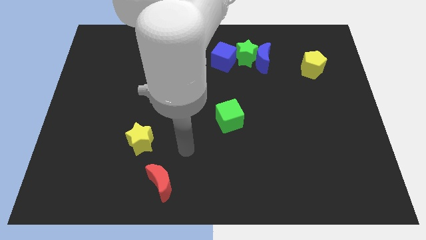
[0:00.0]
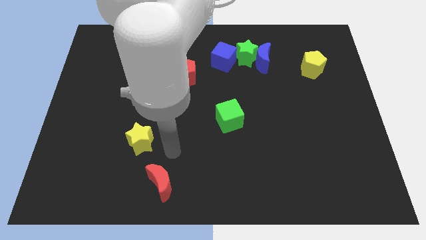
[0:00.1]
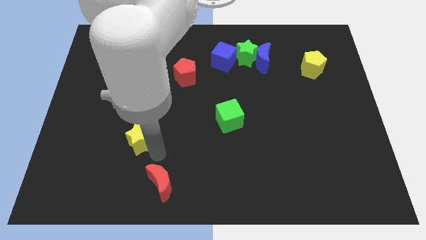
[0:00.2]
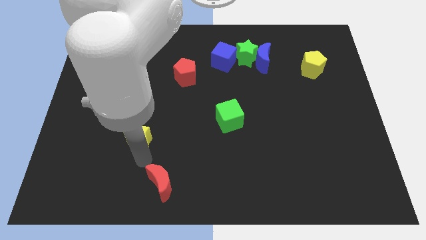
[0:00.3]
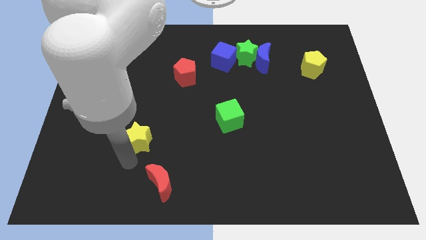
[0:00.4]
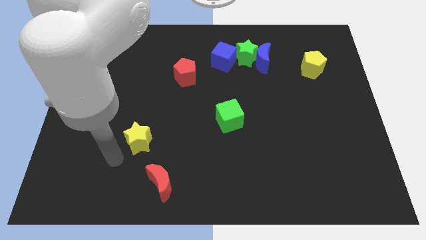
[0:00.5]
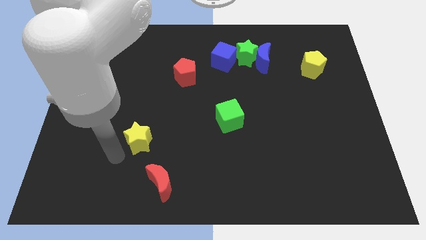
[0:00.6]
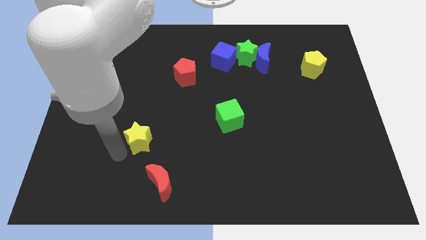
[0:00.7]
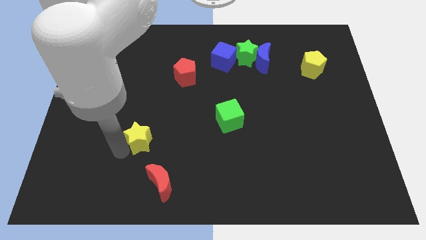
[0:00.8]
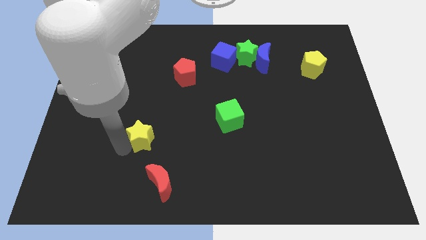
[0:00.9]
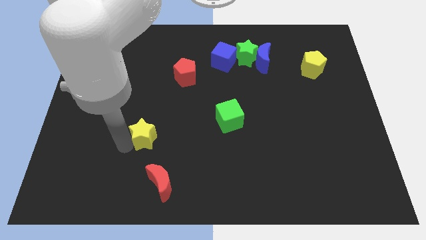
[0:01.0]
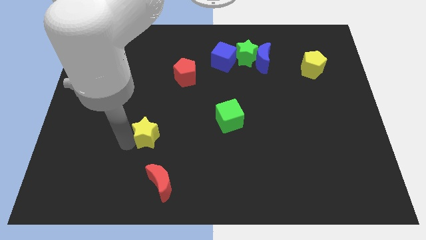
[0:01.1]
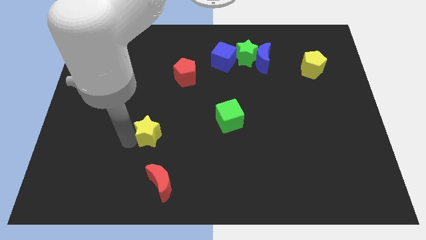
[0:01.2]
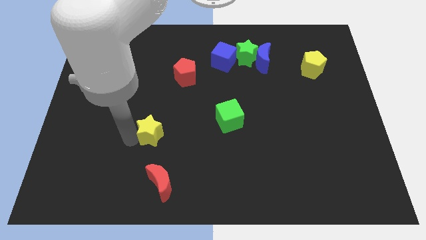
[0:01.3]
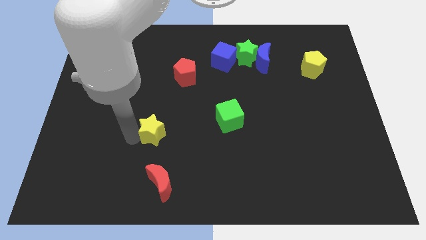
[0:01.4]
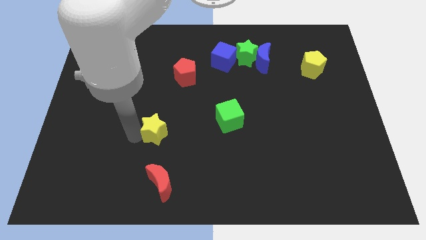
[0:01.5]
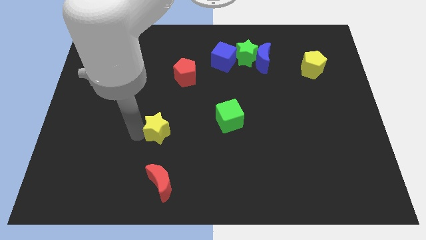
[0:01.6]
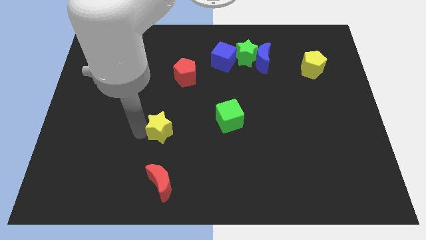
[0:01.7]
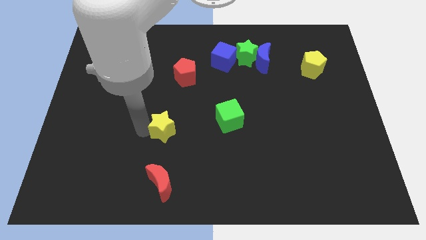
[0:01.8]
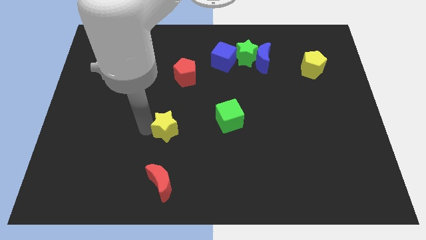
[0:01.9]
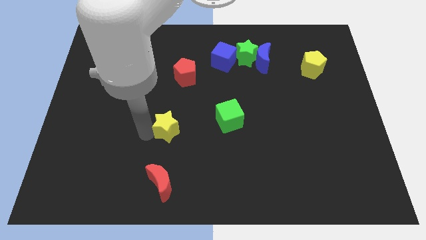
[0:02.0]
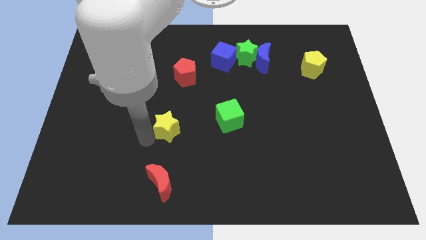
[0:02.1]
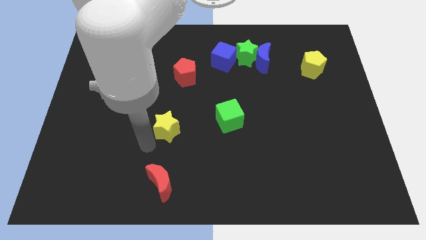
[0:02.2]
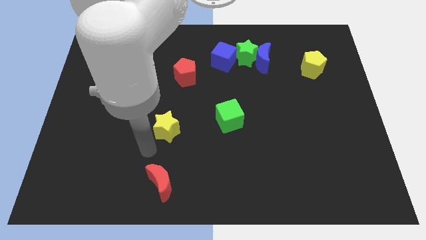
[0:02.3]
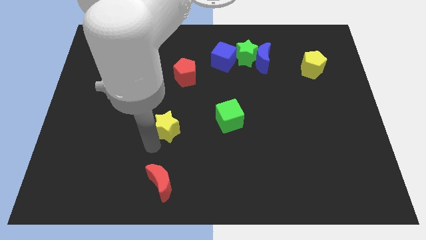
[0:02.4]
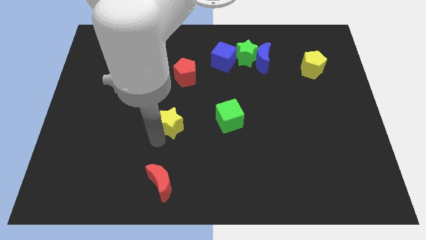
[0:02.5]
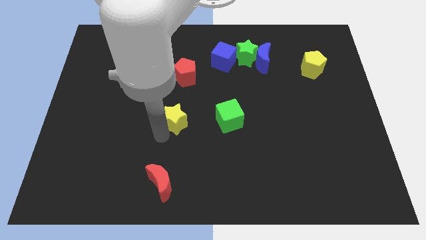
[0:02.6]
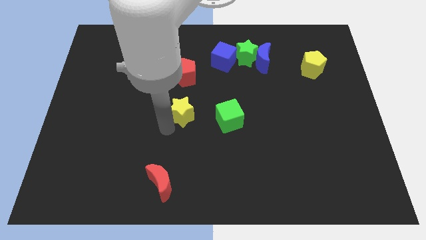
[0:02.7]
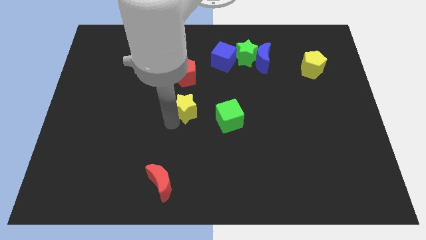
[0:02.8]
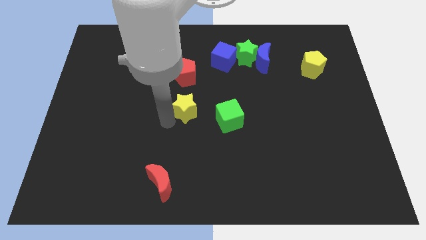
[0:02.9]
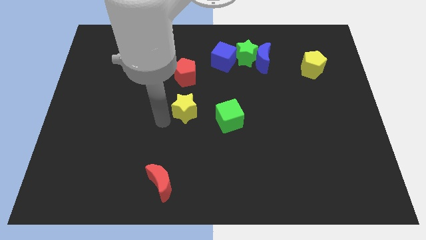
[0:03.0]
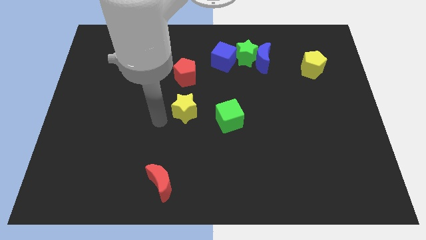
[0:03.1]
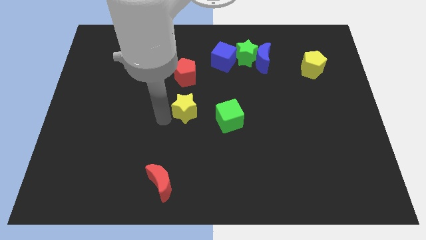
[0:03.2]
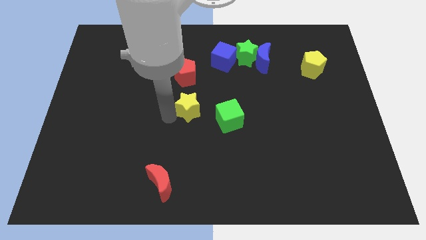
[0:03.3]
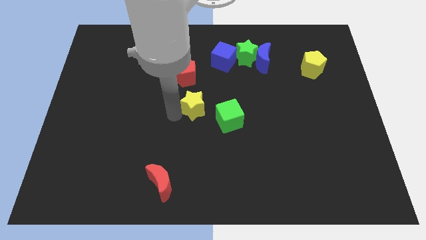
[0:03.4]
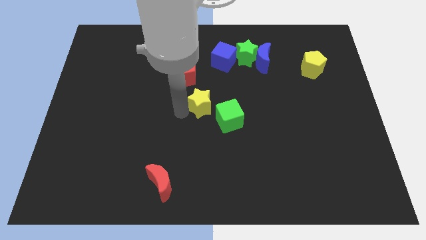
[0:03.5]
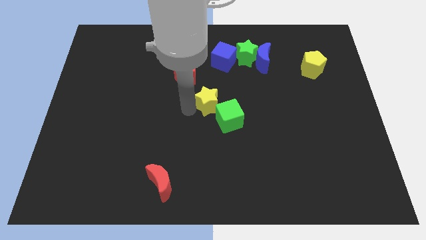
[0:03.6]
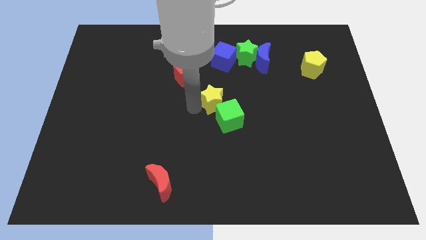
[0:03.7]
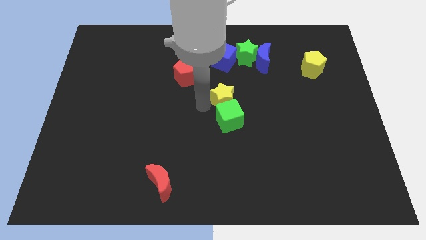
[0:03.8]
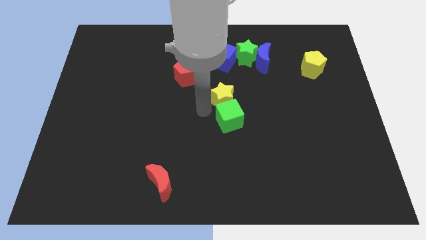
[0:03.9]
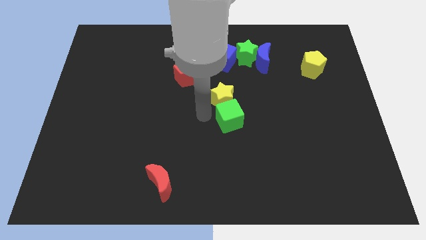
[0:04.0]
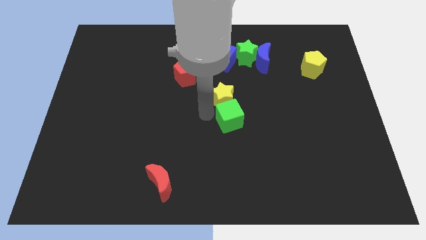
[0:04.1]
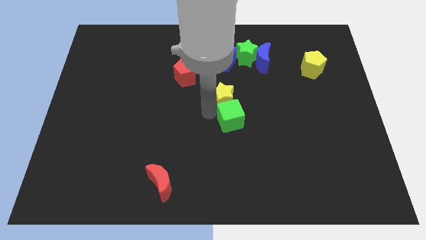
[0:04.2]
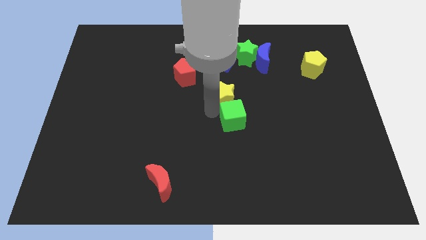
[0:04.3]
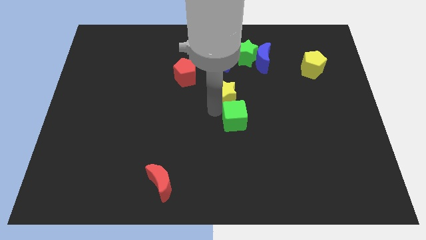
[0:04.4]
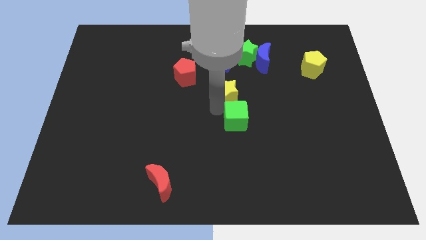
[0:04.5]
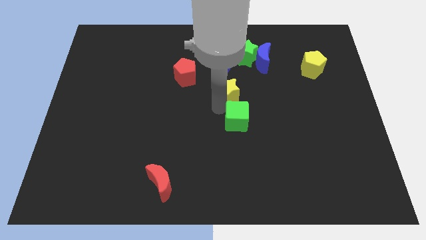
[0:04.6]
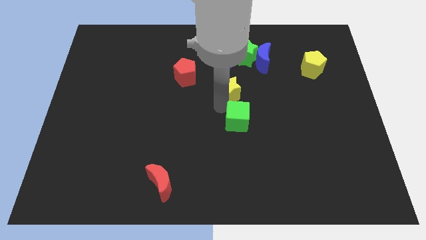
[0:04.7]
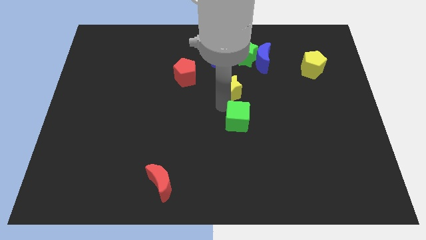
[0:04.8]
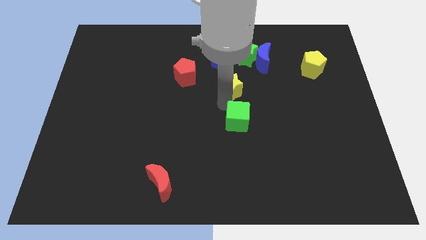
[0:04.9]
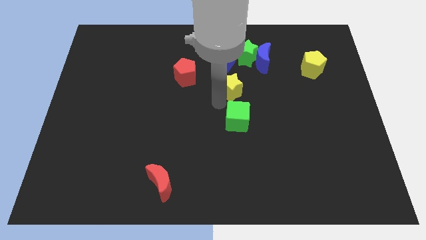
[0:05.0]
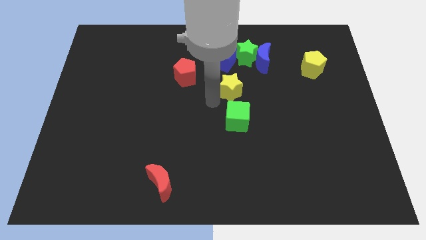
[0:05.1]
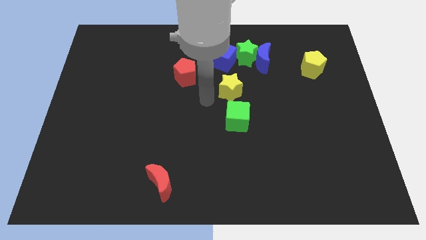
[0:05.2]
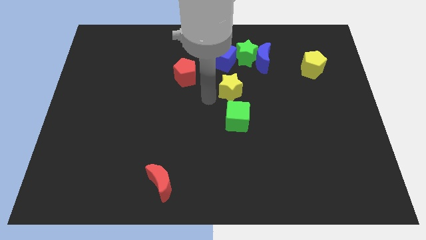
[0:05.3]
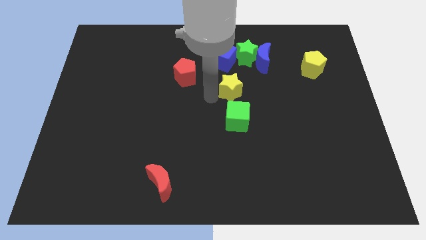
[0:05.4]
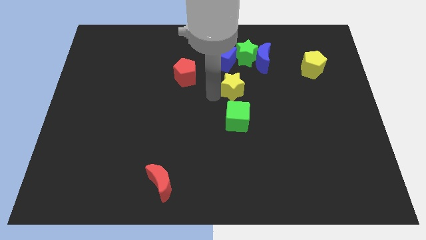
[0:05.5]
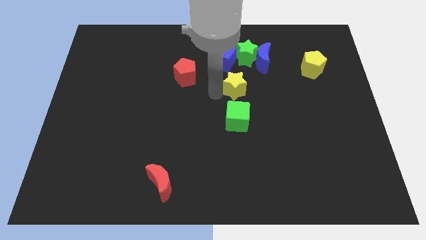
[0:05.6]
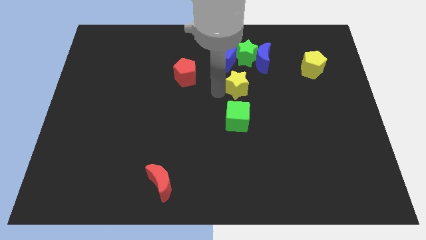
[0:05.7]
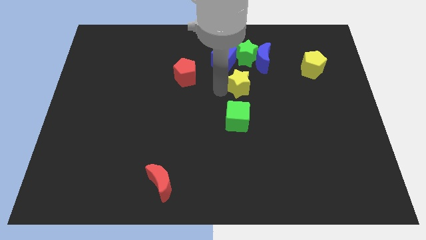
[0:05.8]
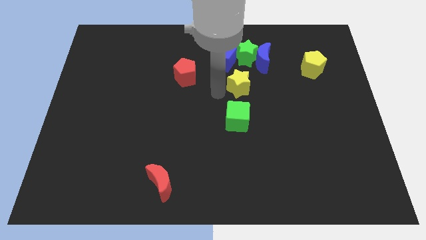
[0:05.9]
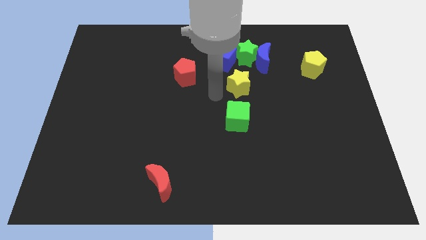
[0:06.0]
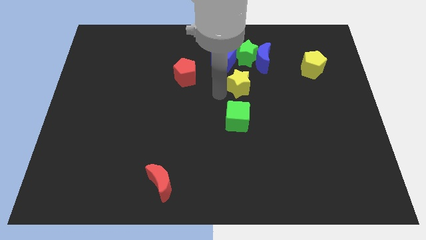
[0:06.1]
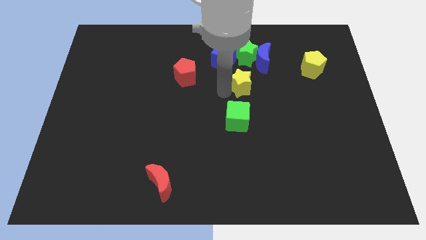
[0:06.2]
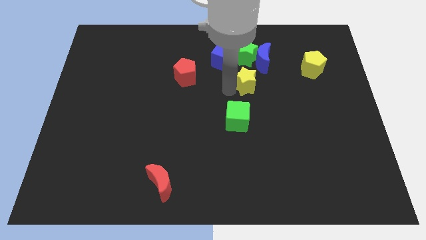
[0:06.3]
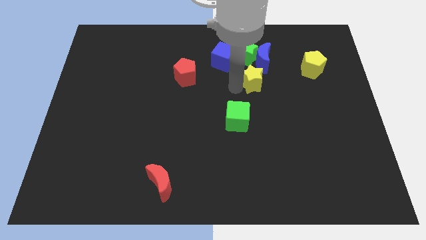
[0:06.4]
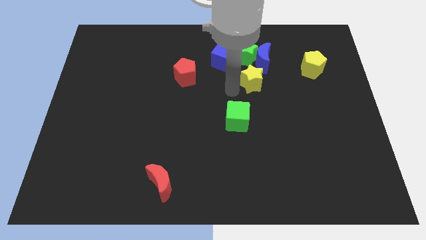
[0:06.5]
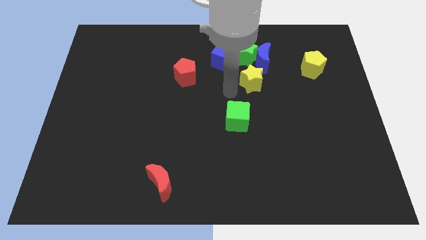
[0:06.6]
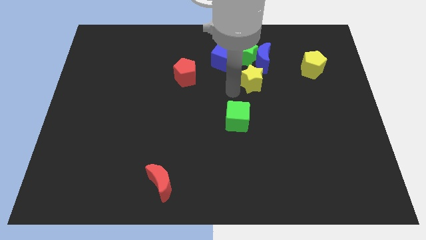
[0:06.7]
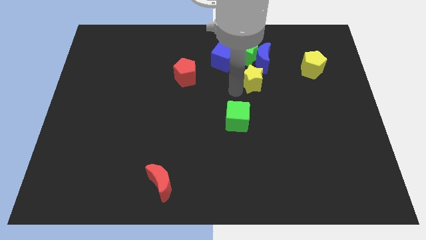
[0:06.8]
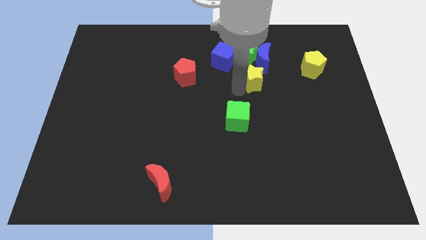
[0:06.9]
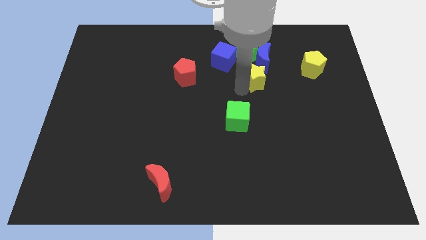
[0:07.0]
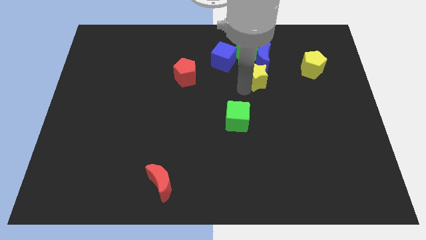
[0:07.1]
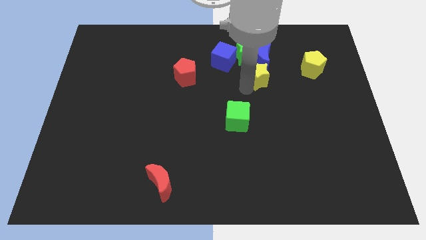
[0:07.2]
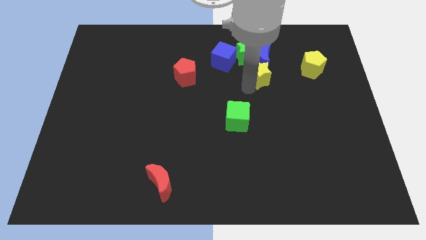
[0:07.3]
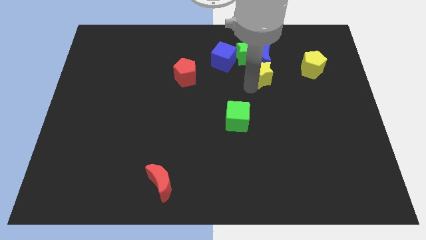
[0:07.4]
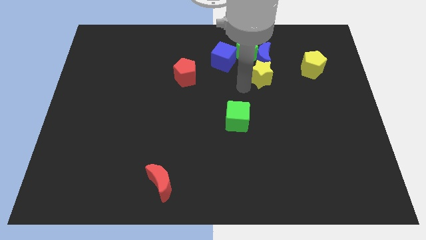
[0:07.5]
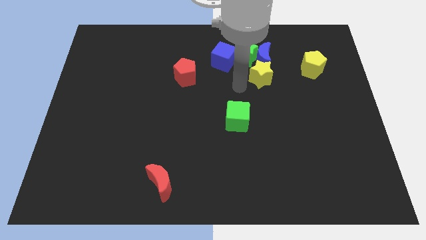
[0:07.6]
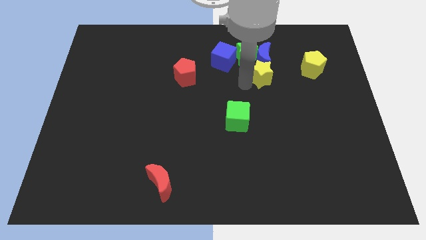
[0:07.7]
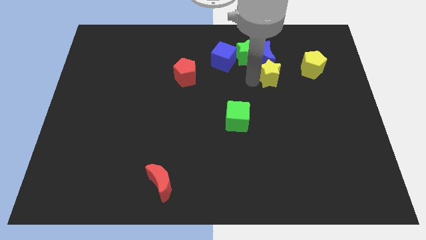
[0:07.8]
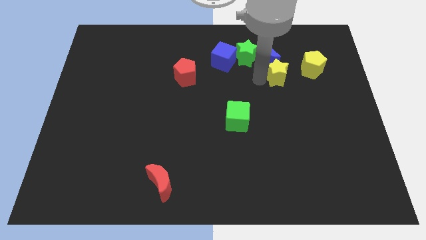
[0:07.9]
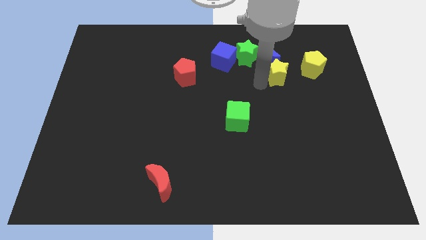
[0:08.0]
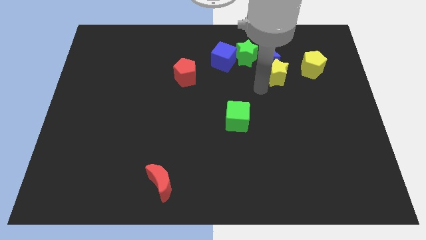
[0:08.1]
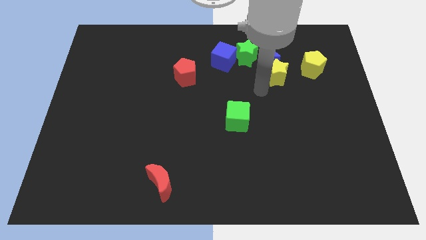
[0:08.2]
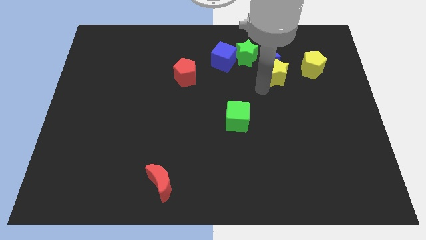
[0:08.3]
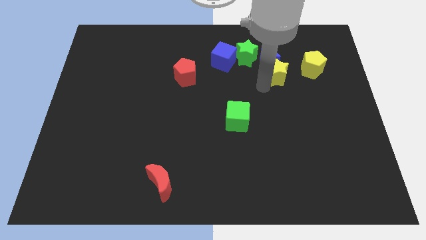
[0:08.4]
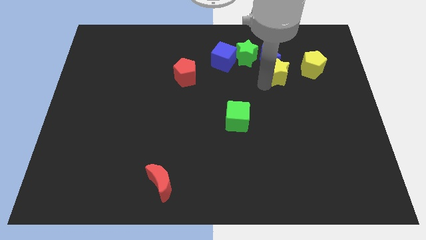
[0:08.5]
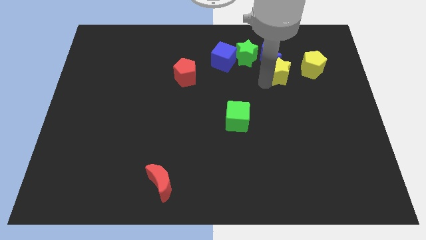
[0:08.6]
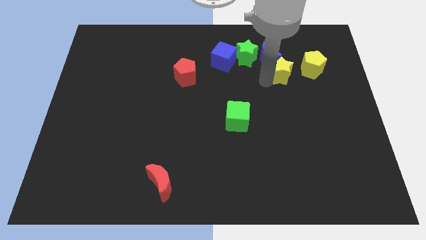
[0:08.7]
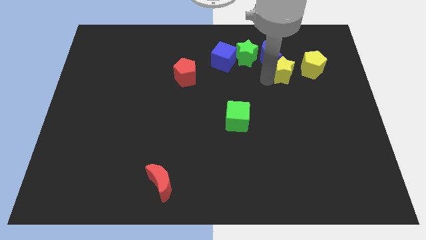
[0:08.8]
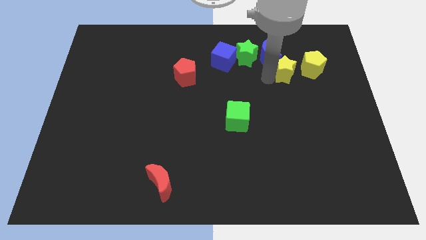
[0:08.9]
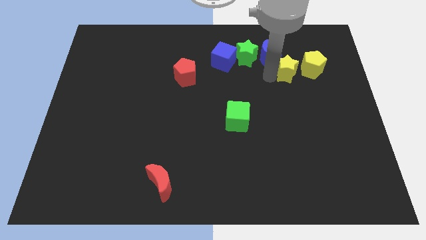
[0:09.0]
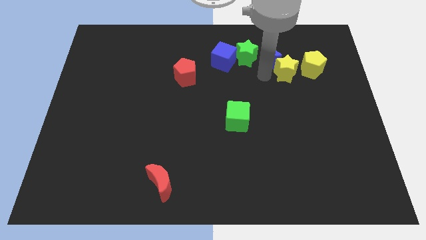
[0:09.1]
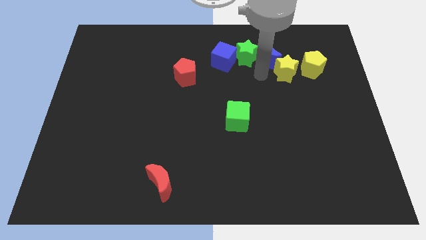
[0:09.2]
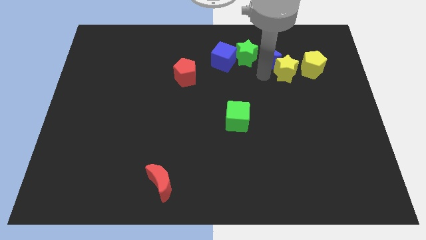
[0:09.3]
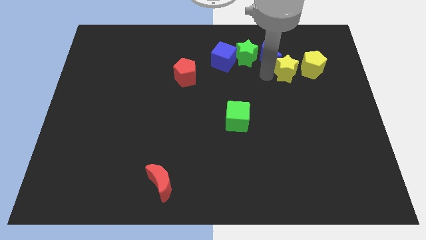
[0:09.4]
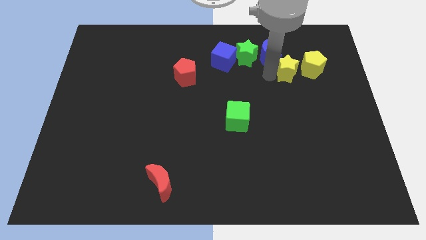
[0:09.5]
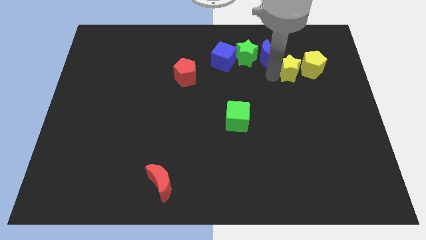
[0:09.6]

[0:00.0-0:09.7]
slide the yellow star to the yellow pentagon
